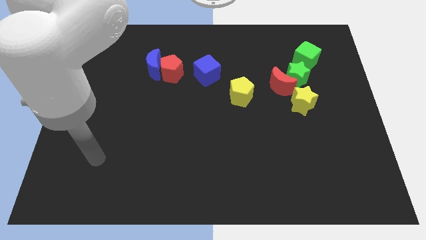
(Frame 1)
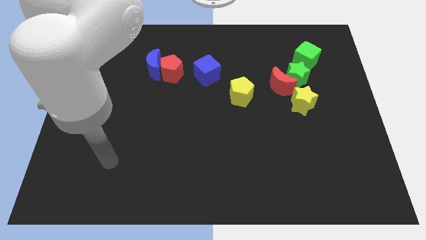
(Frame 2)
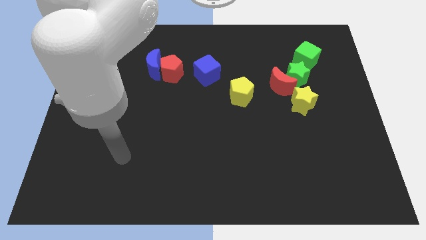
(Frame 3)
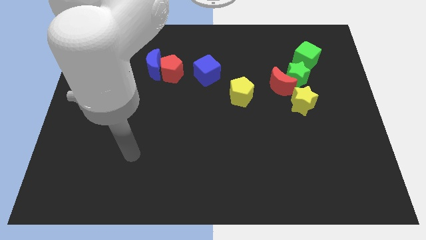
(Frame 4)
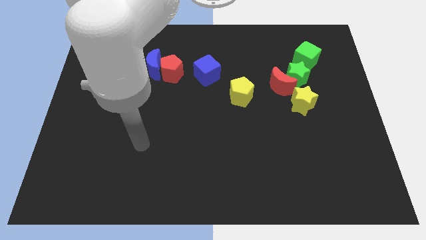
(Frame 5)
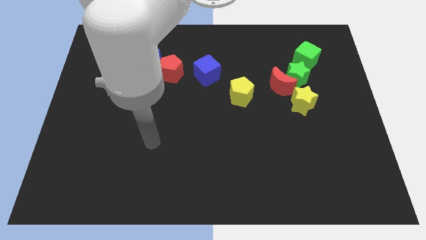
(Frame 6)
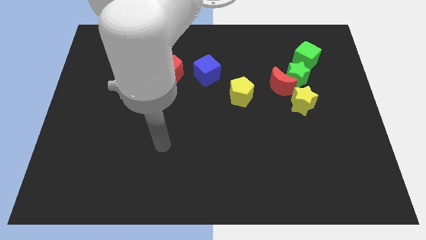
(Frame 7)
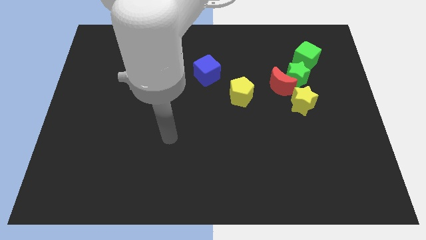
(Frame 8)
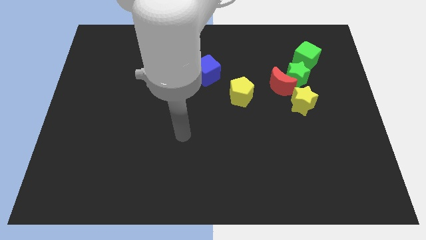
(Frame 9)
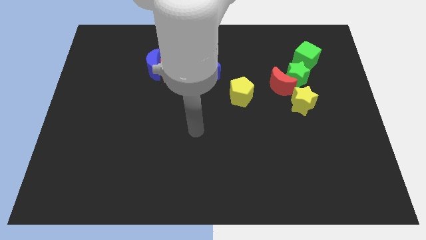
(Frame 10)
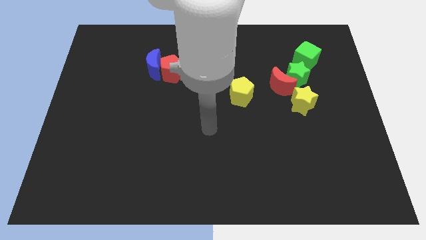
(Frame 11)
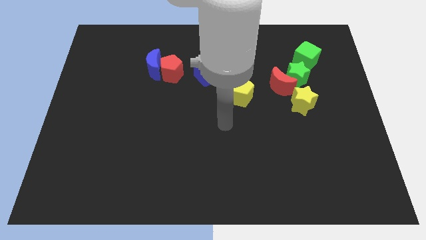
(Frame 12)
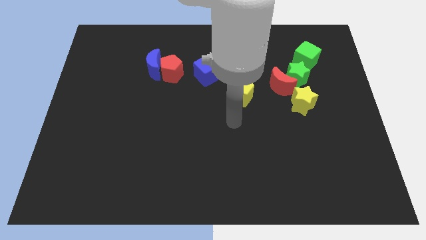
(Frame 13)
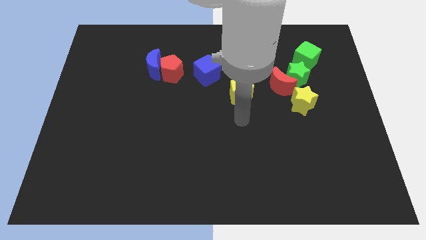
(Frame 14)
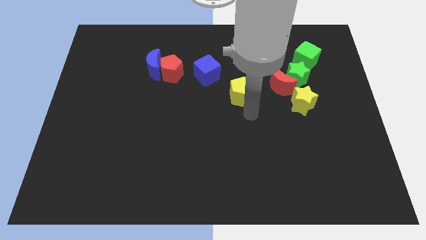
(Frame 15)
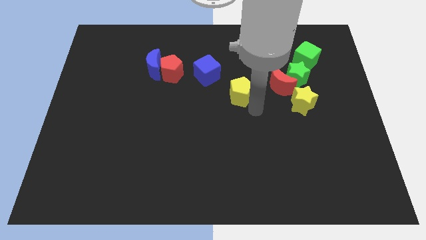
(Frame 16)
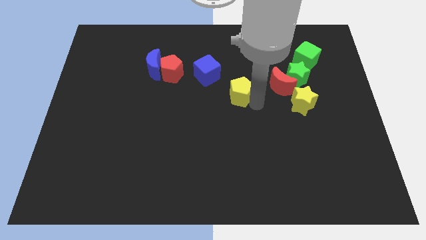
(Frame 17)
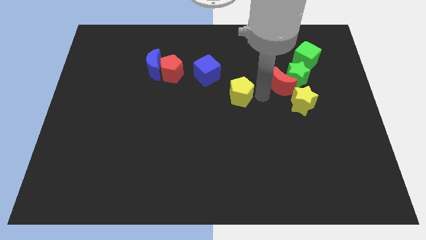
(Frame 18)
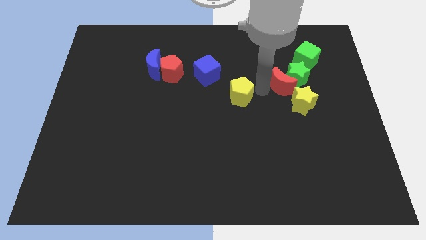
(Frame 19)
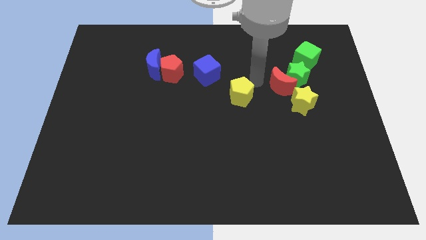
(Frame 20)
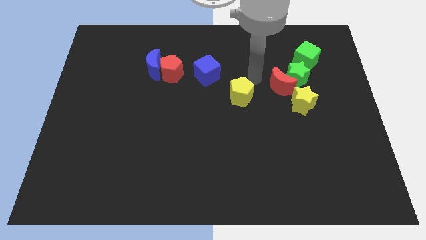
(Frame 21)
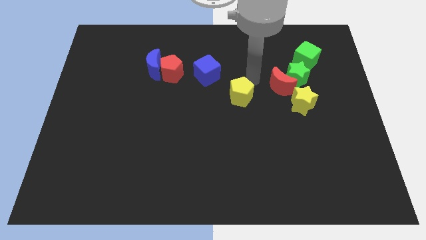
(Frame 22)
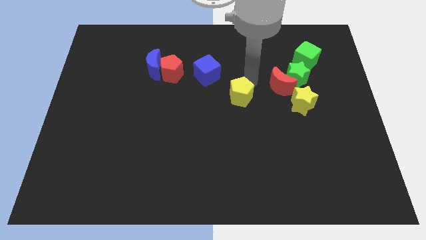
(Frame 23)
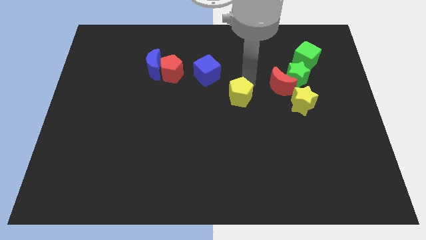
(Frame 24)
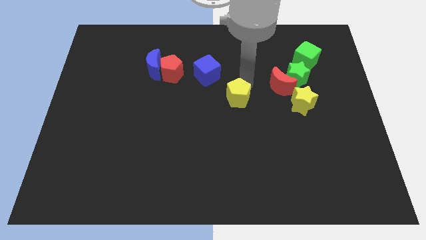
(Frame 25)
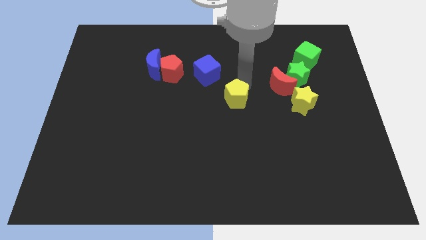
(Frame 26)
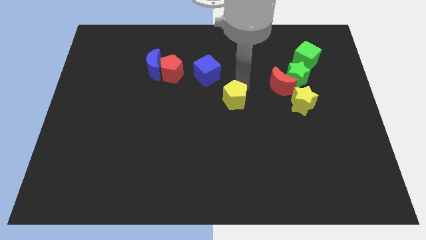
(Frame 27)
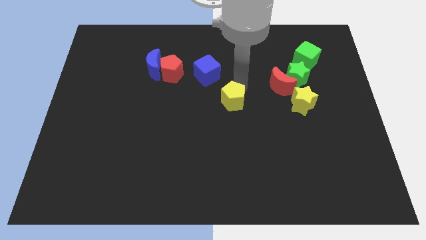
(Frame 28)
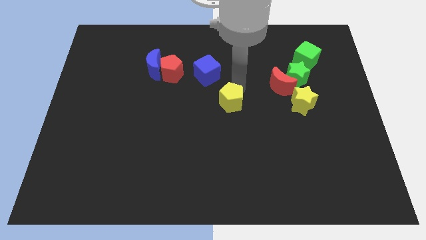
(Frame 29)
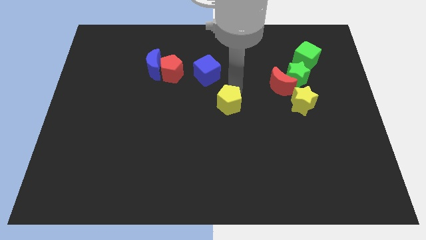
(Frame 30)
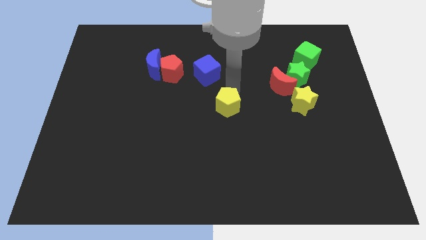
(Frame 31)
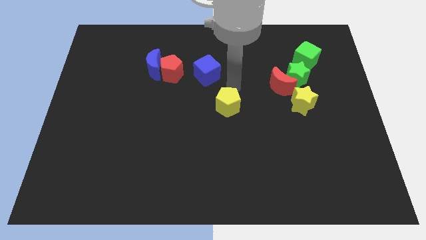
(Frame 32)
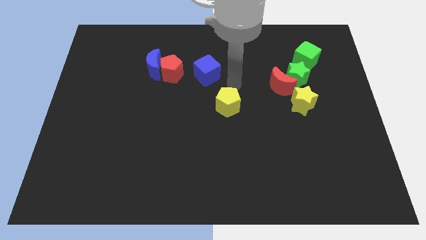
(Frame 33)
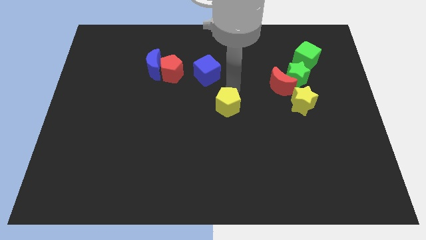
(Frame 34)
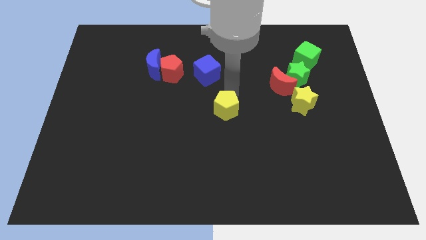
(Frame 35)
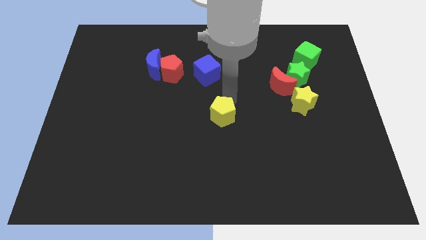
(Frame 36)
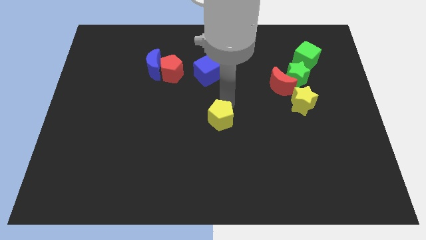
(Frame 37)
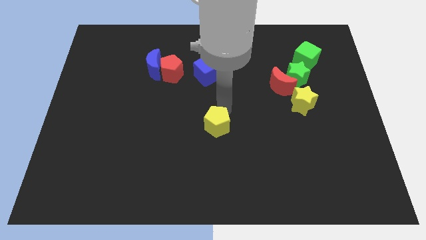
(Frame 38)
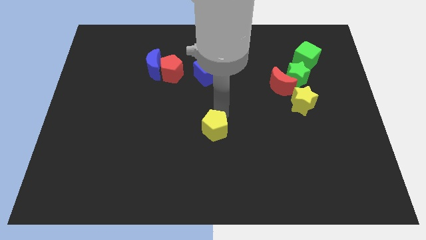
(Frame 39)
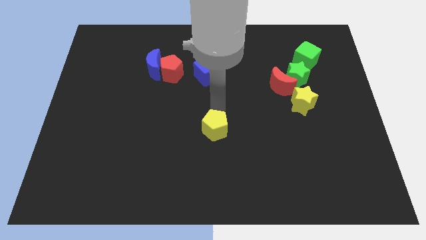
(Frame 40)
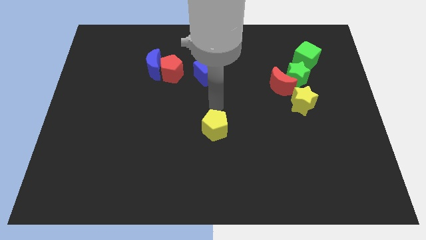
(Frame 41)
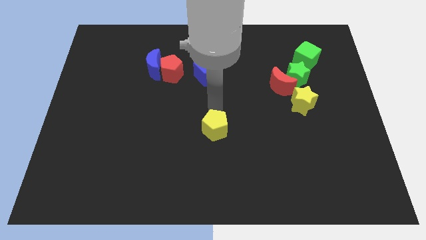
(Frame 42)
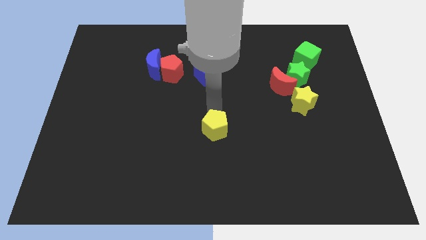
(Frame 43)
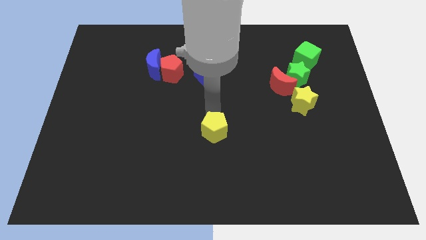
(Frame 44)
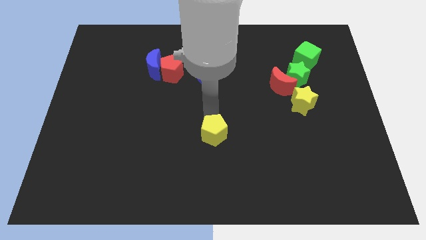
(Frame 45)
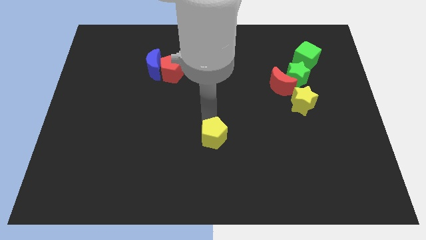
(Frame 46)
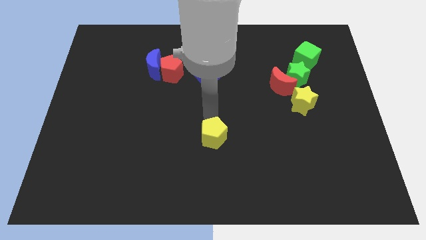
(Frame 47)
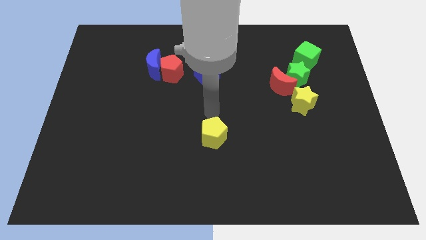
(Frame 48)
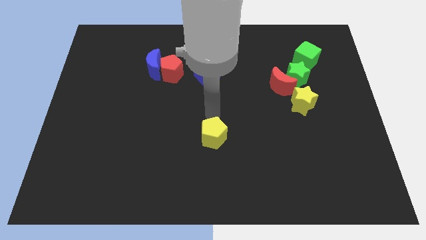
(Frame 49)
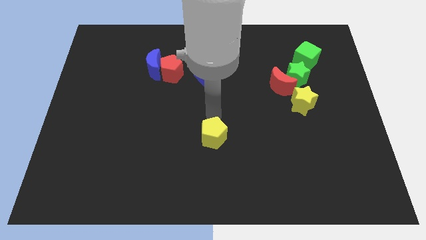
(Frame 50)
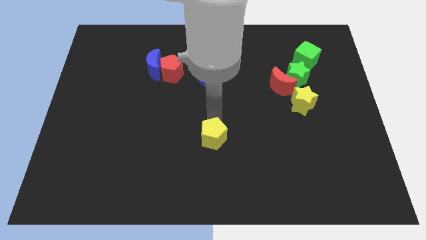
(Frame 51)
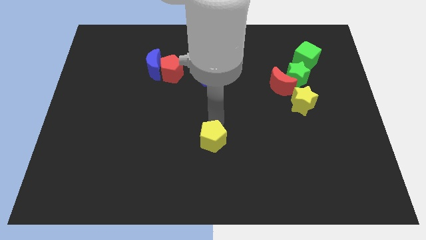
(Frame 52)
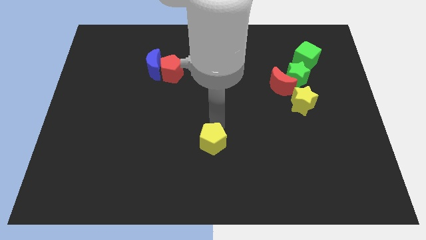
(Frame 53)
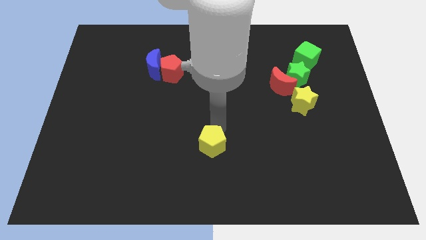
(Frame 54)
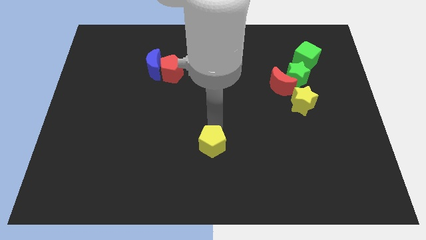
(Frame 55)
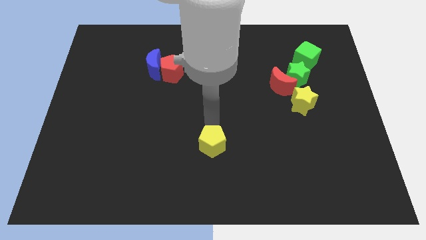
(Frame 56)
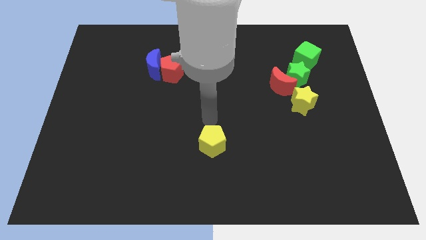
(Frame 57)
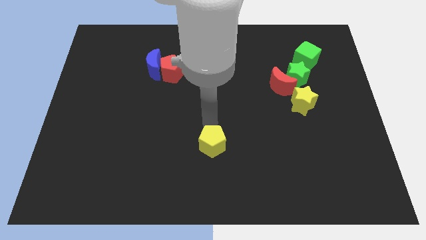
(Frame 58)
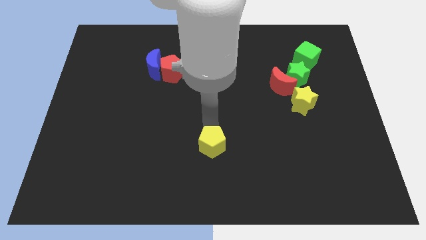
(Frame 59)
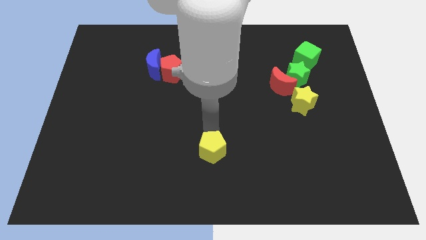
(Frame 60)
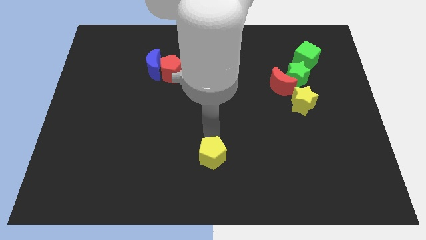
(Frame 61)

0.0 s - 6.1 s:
slide the yellow pentagon to the bottom side
